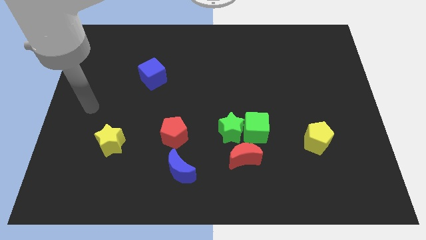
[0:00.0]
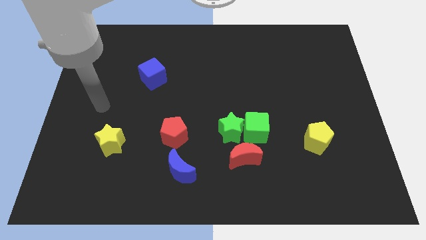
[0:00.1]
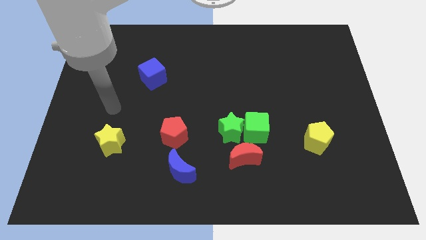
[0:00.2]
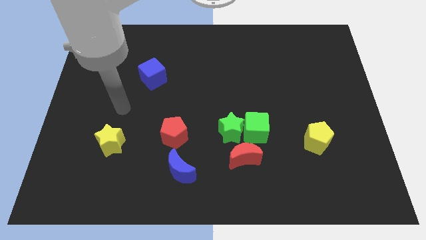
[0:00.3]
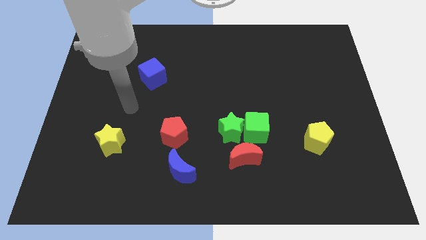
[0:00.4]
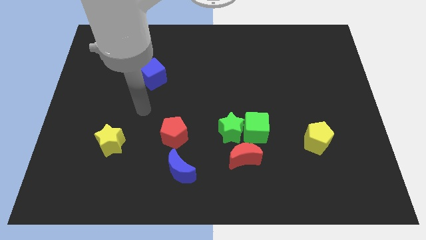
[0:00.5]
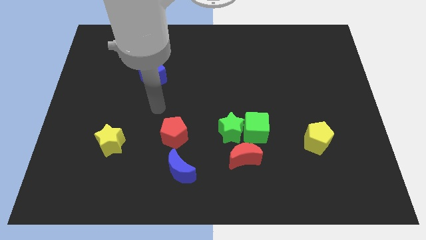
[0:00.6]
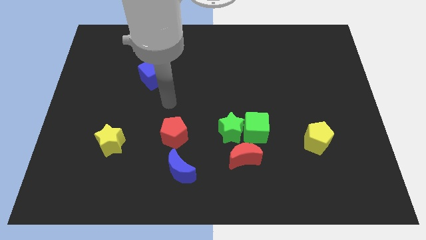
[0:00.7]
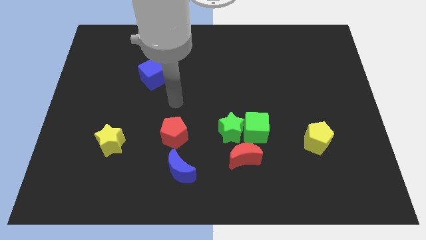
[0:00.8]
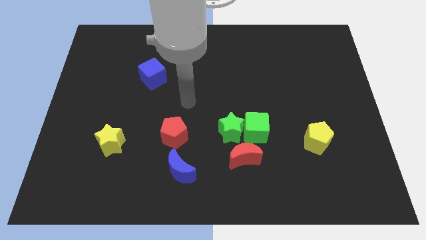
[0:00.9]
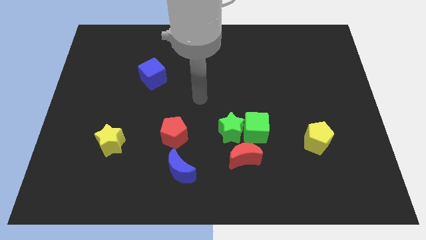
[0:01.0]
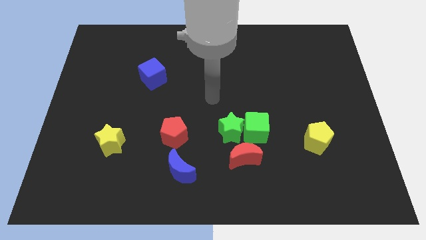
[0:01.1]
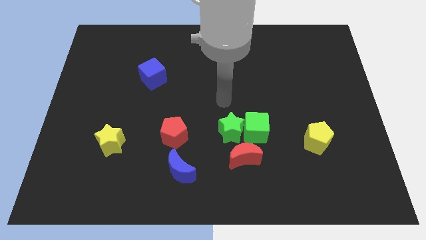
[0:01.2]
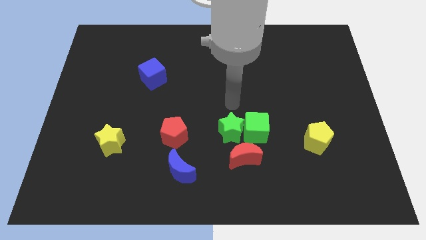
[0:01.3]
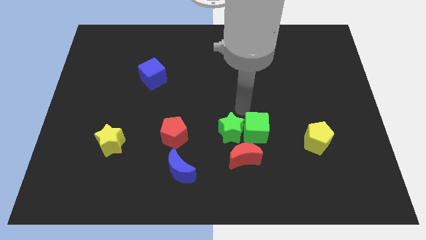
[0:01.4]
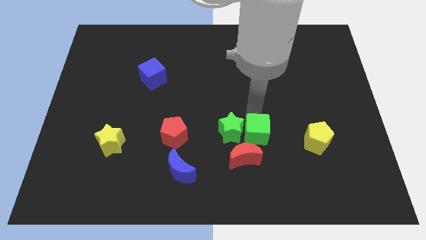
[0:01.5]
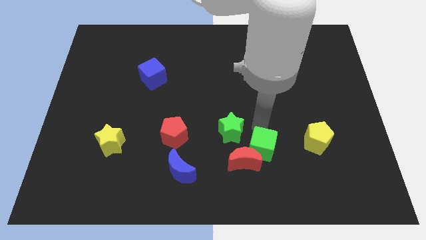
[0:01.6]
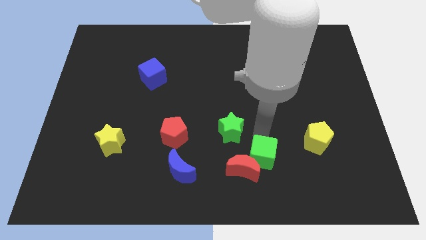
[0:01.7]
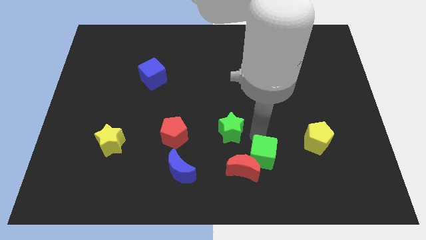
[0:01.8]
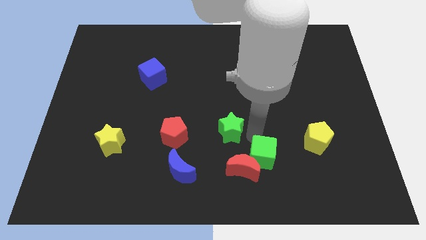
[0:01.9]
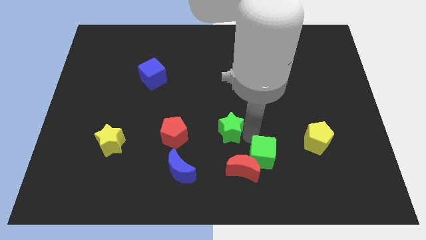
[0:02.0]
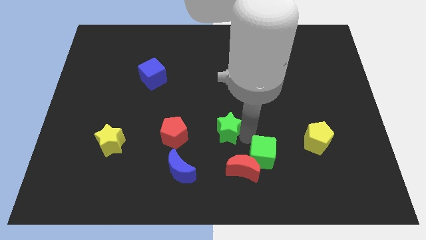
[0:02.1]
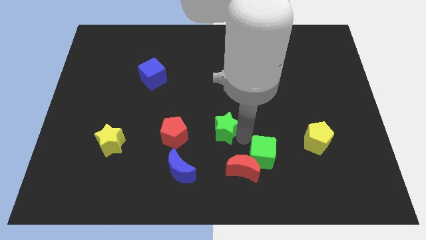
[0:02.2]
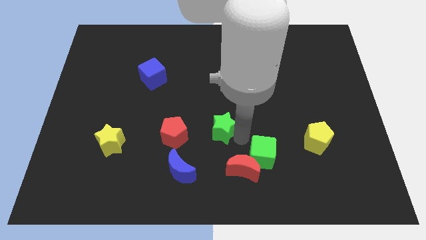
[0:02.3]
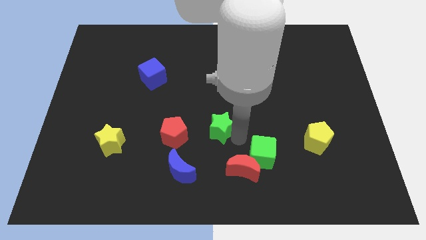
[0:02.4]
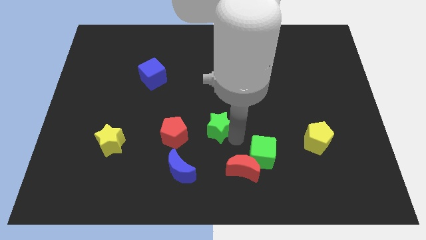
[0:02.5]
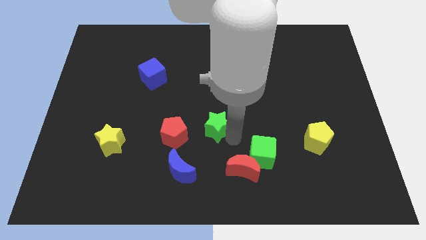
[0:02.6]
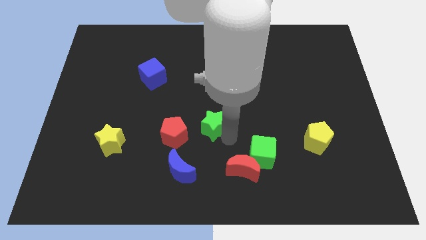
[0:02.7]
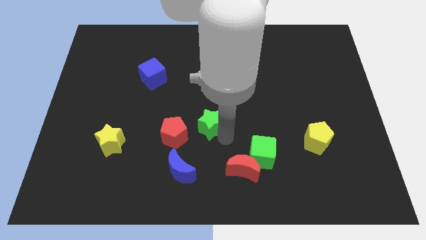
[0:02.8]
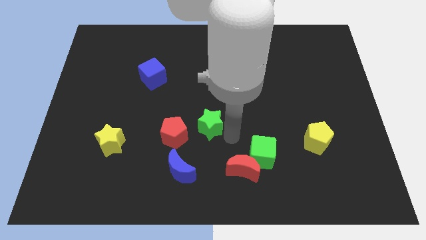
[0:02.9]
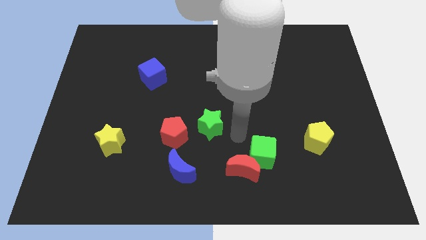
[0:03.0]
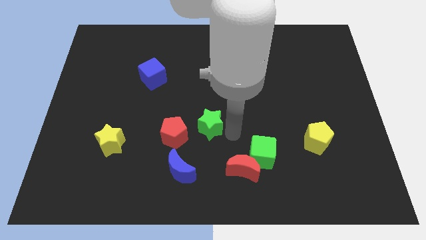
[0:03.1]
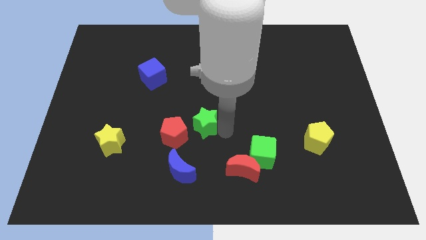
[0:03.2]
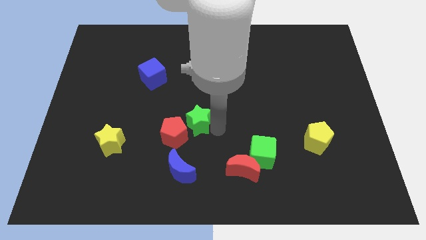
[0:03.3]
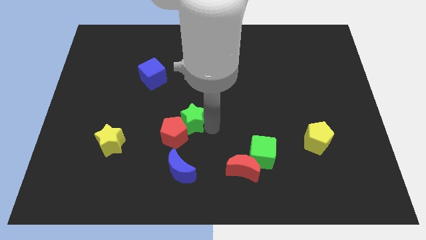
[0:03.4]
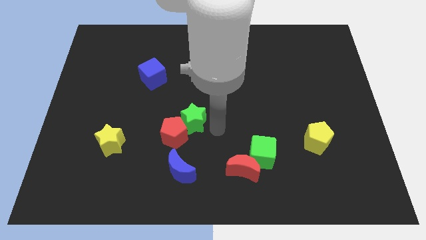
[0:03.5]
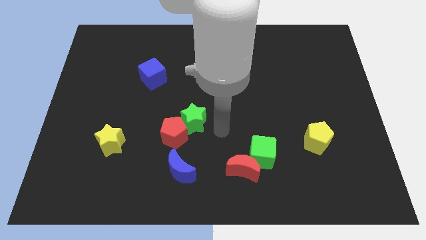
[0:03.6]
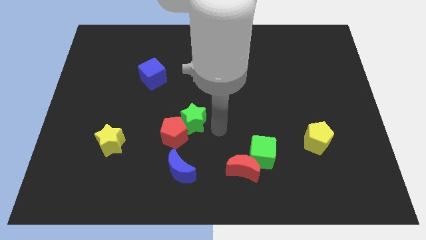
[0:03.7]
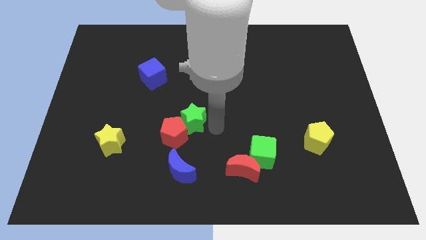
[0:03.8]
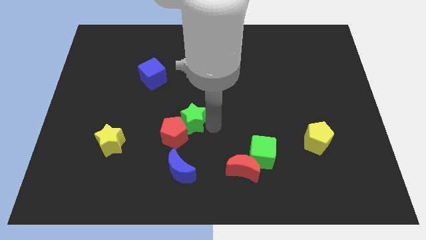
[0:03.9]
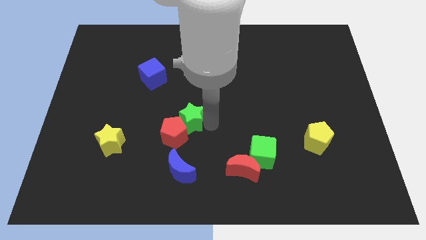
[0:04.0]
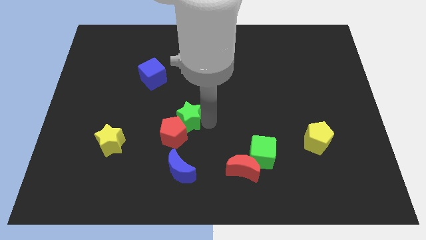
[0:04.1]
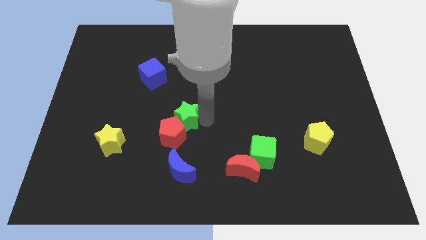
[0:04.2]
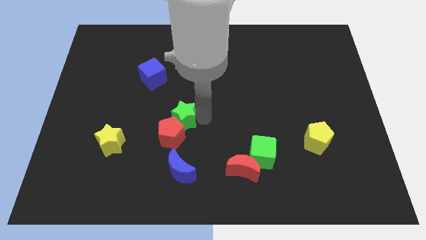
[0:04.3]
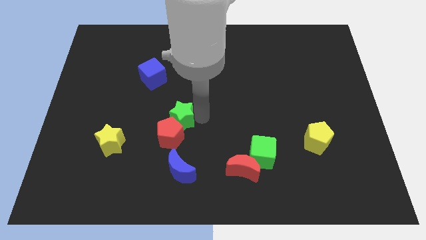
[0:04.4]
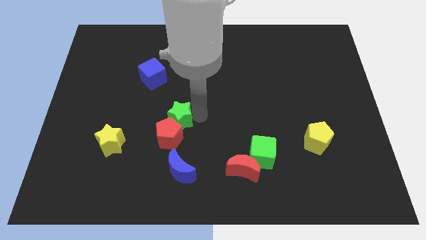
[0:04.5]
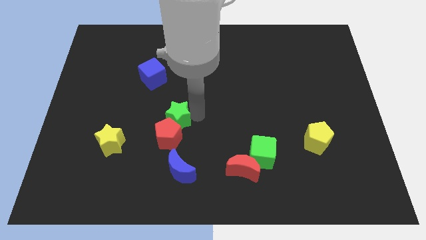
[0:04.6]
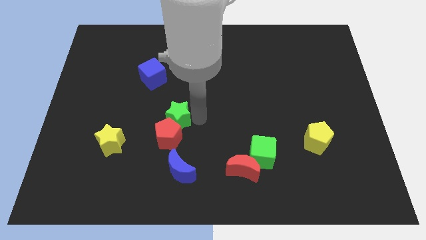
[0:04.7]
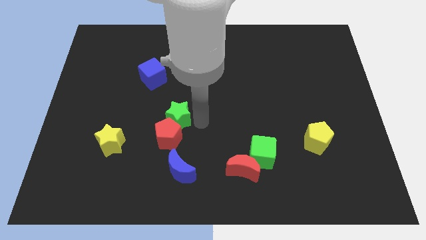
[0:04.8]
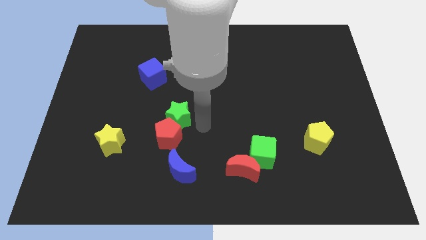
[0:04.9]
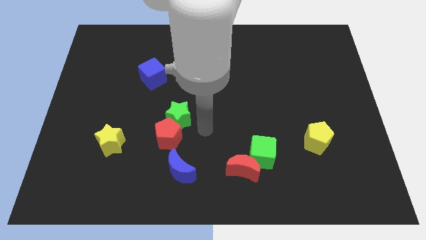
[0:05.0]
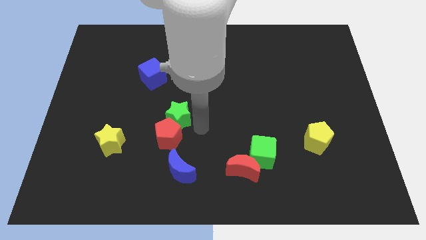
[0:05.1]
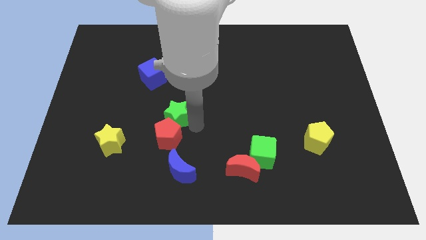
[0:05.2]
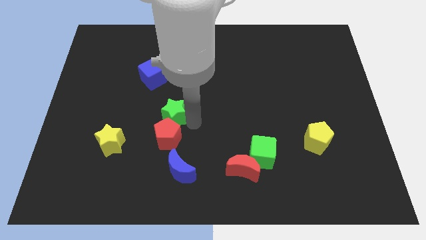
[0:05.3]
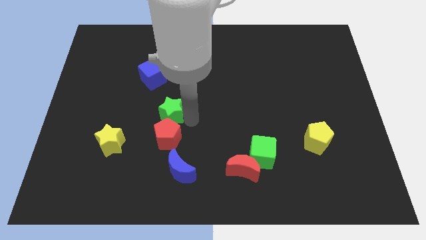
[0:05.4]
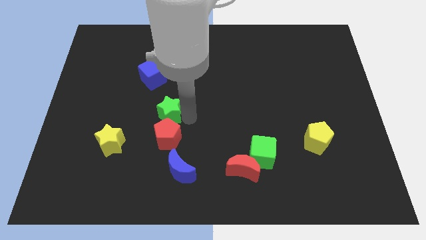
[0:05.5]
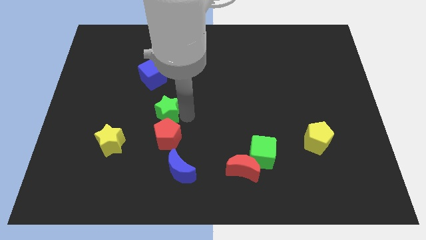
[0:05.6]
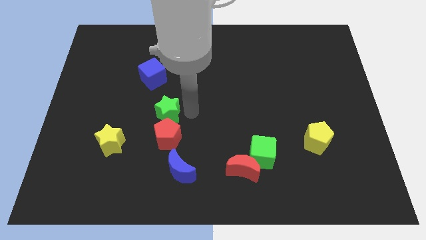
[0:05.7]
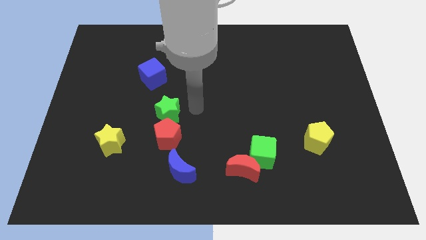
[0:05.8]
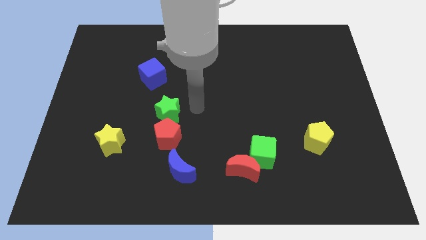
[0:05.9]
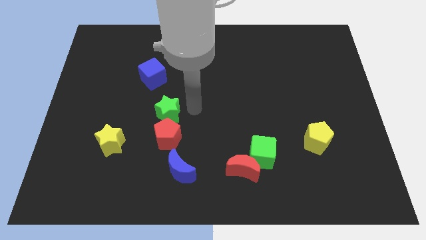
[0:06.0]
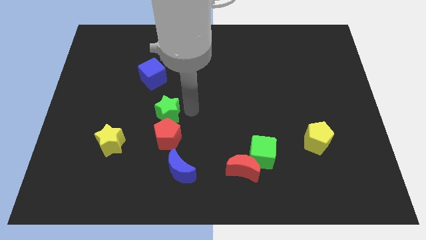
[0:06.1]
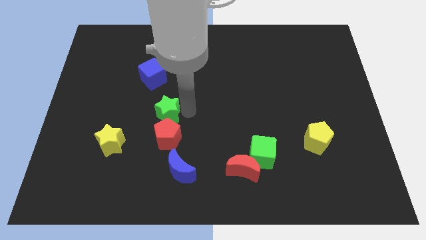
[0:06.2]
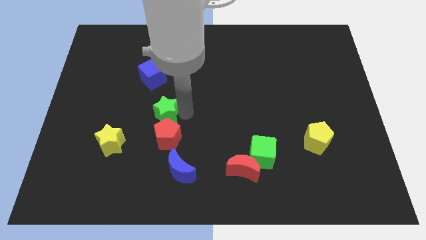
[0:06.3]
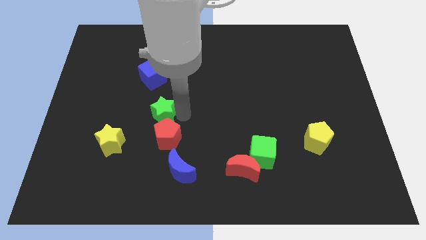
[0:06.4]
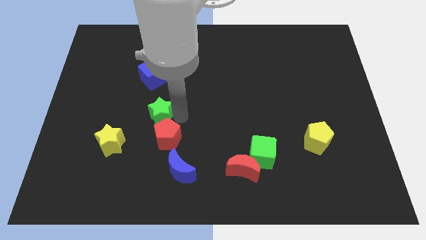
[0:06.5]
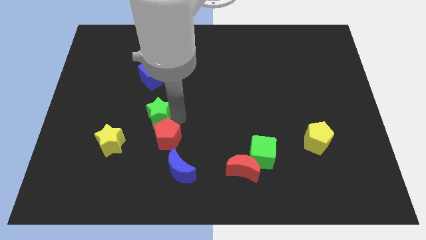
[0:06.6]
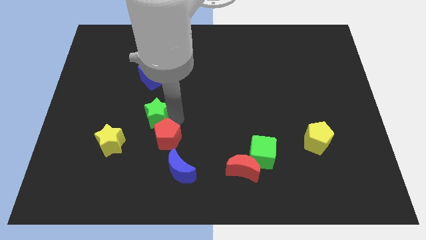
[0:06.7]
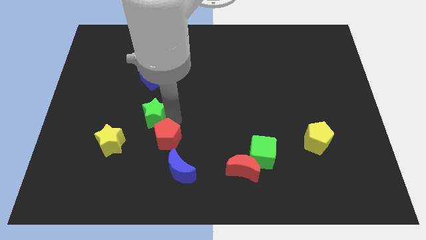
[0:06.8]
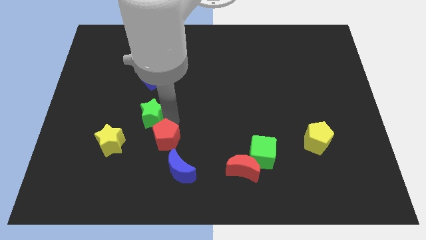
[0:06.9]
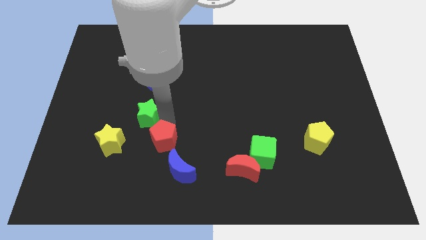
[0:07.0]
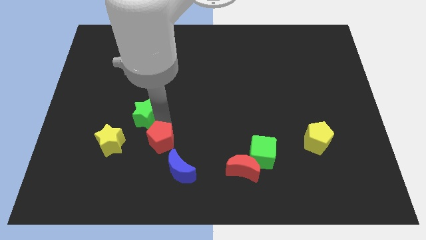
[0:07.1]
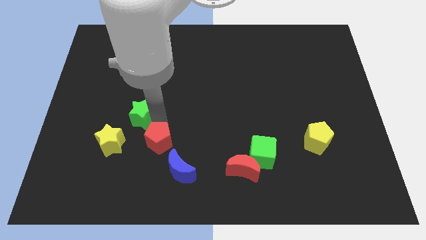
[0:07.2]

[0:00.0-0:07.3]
move the green star to the left

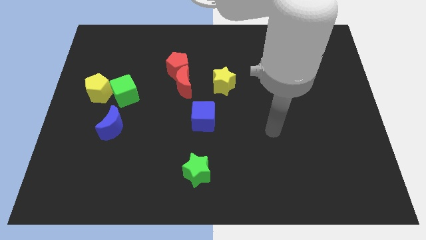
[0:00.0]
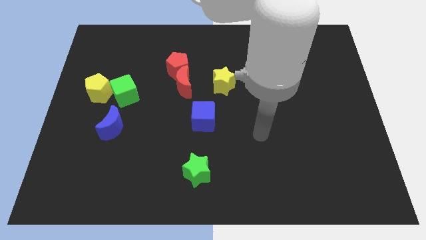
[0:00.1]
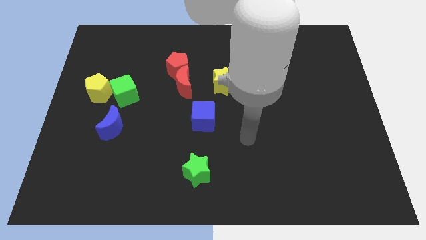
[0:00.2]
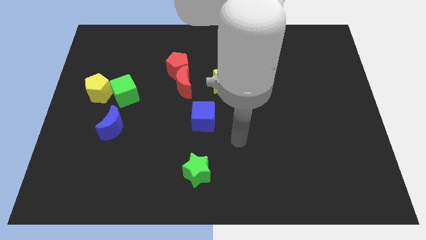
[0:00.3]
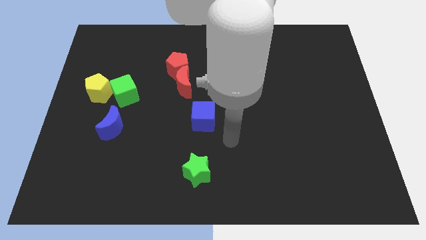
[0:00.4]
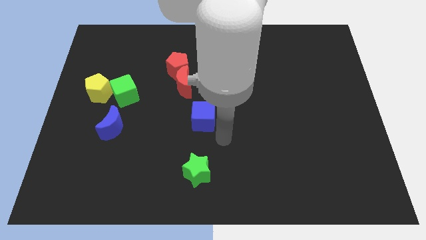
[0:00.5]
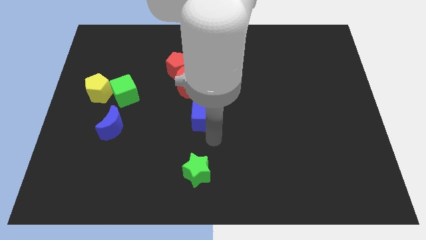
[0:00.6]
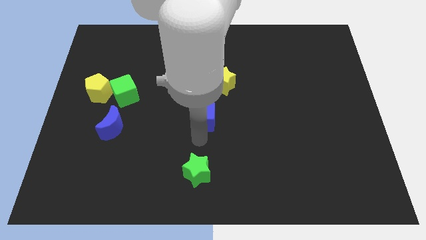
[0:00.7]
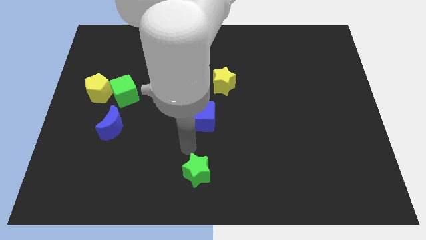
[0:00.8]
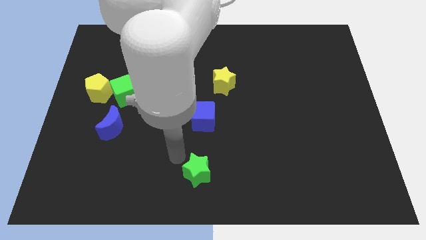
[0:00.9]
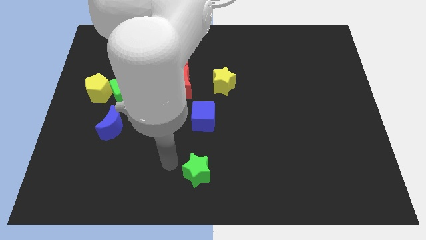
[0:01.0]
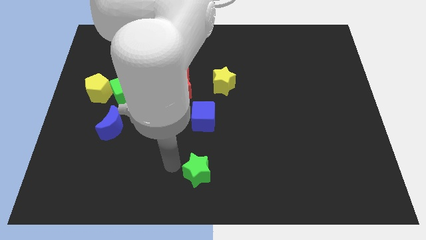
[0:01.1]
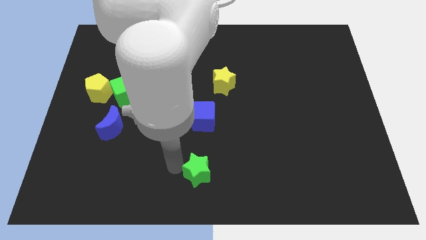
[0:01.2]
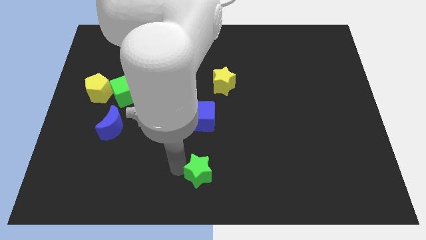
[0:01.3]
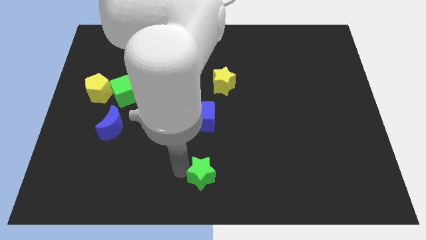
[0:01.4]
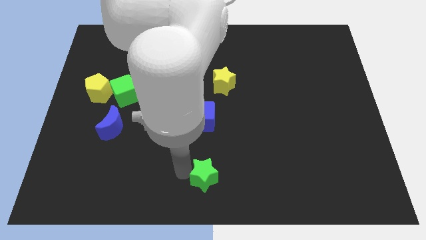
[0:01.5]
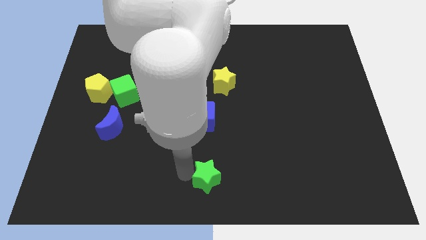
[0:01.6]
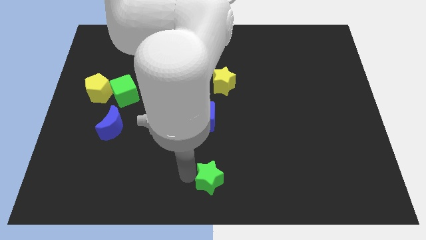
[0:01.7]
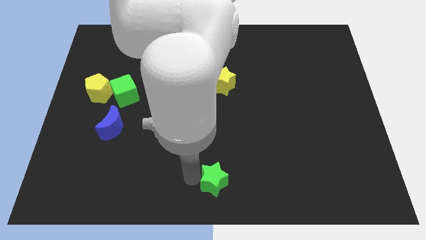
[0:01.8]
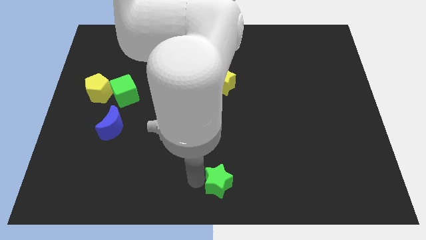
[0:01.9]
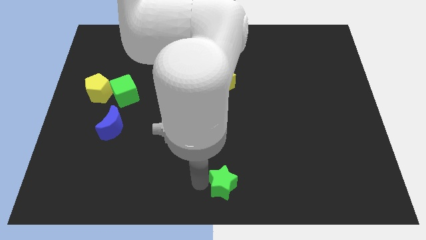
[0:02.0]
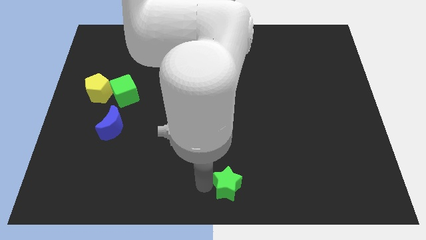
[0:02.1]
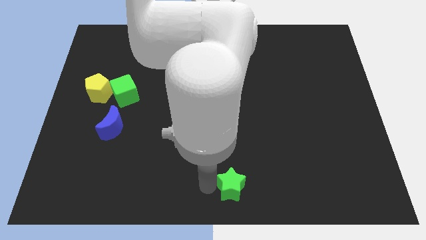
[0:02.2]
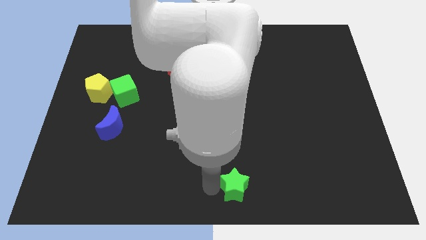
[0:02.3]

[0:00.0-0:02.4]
push the green star slightly to the right
